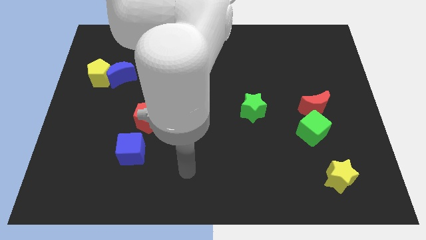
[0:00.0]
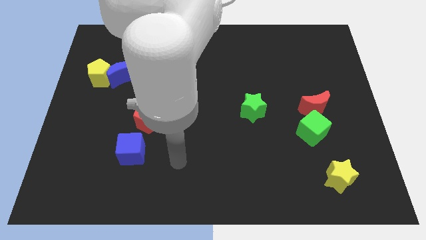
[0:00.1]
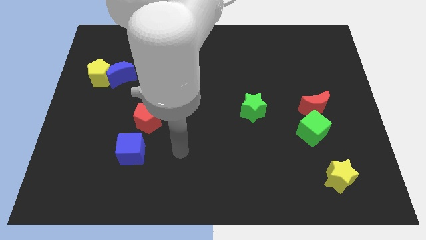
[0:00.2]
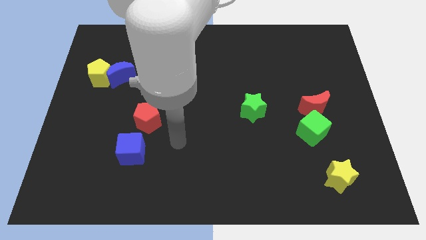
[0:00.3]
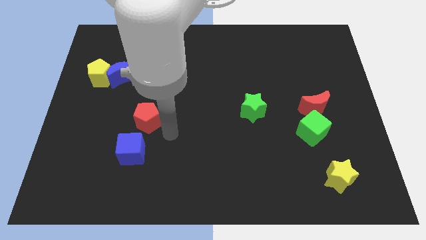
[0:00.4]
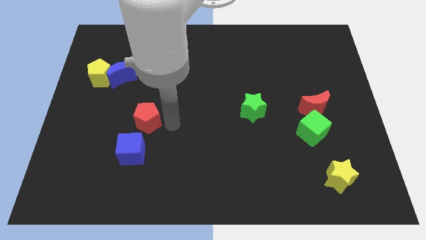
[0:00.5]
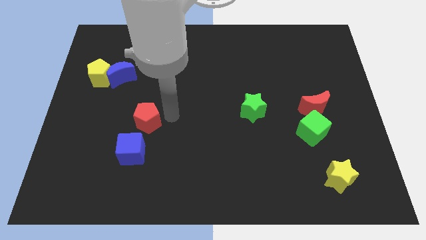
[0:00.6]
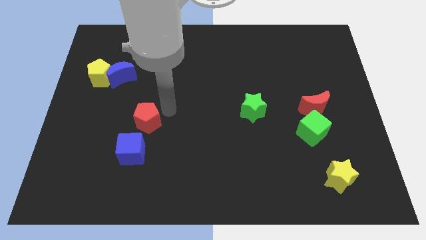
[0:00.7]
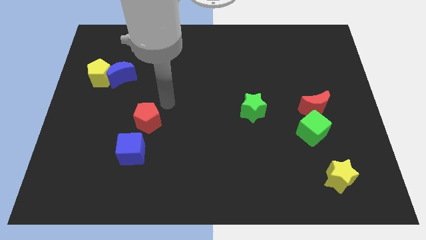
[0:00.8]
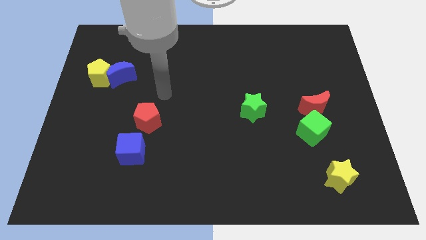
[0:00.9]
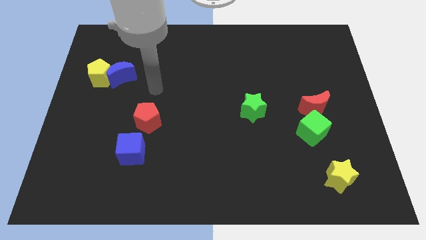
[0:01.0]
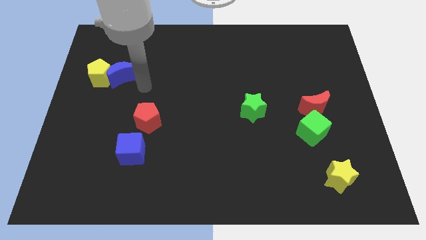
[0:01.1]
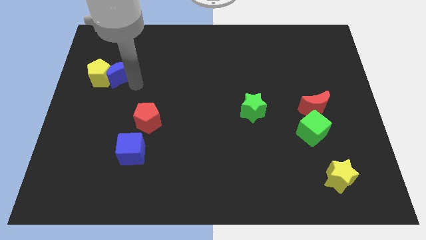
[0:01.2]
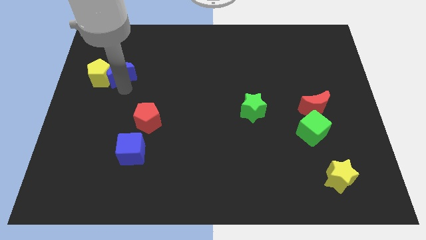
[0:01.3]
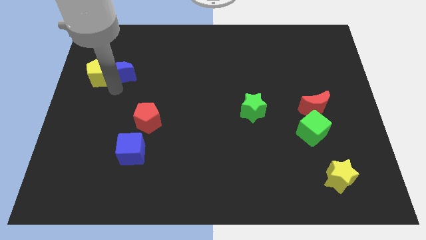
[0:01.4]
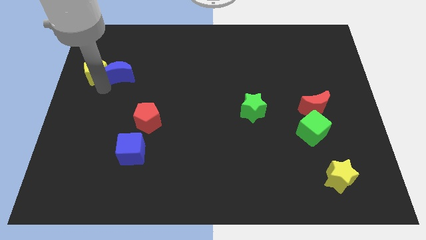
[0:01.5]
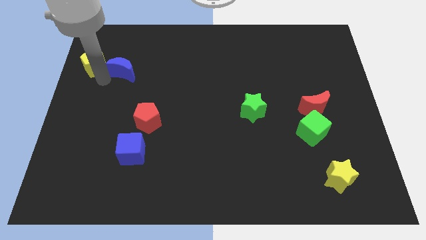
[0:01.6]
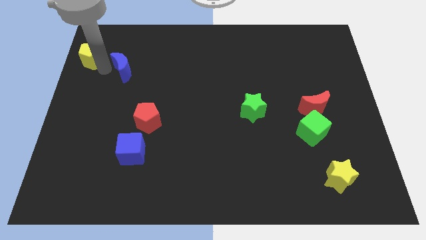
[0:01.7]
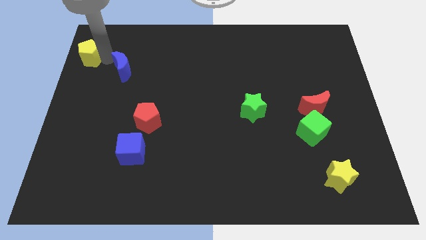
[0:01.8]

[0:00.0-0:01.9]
separate the blue moon from the yellow pentagon

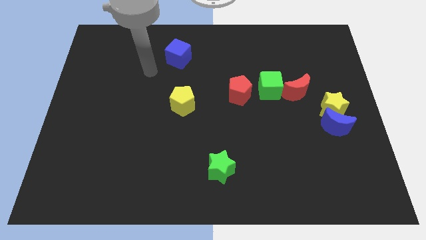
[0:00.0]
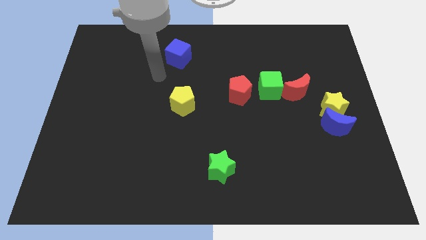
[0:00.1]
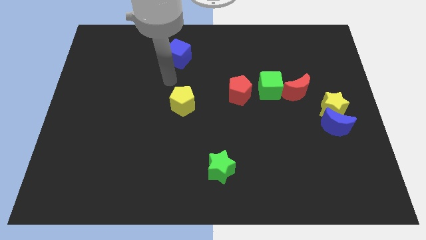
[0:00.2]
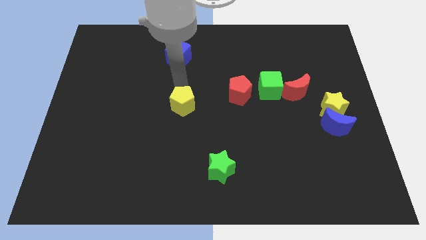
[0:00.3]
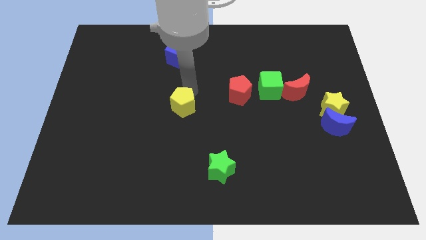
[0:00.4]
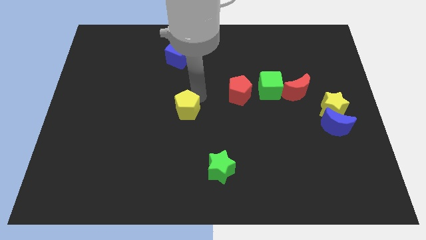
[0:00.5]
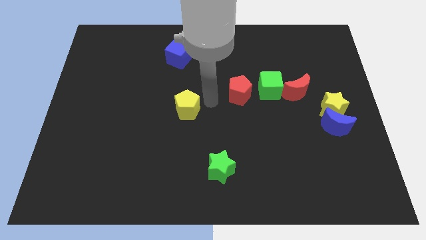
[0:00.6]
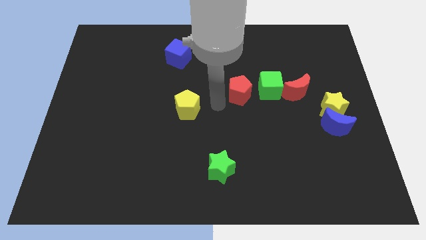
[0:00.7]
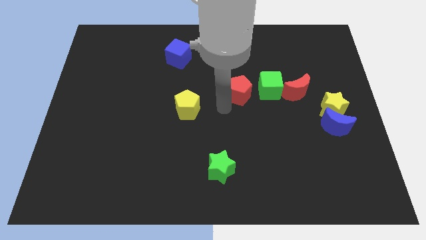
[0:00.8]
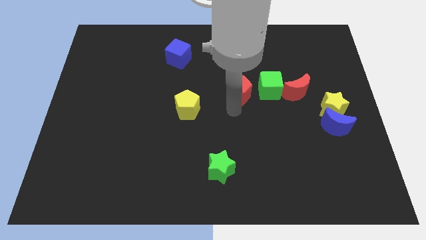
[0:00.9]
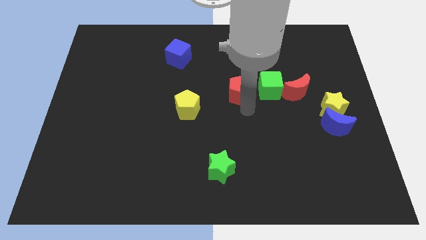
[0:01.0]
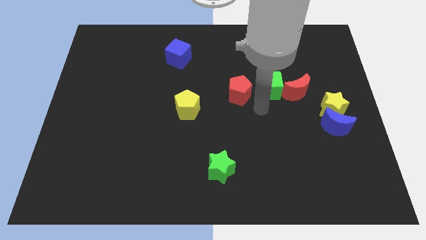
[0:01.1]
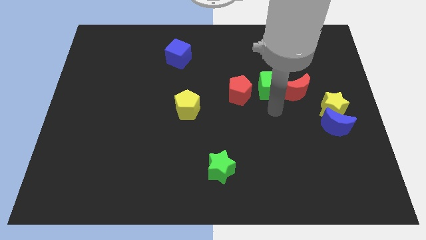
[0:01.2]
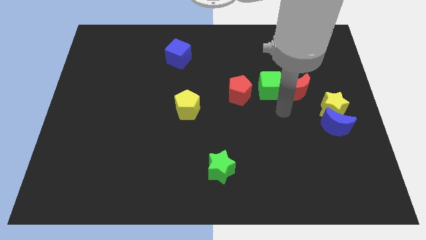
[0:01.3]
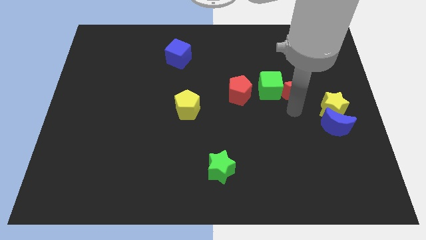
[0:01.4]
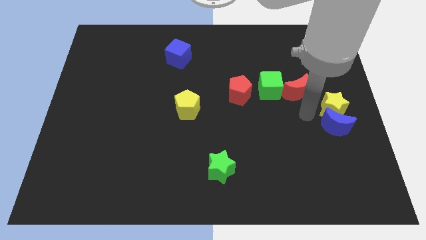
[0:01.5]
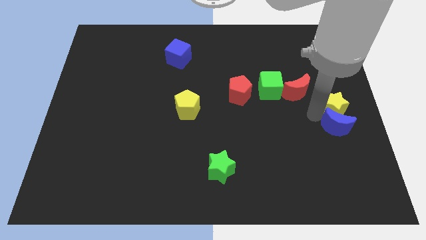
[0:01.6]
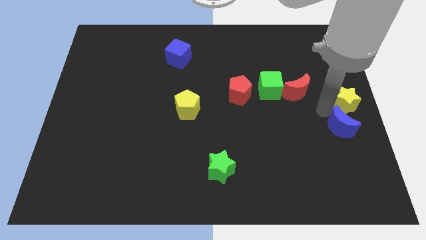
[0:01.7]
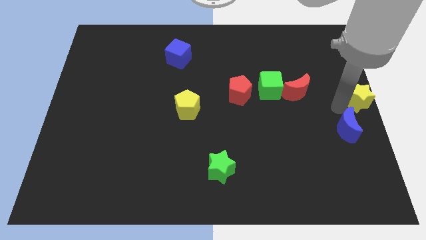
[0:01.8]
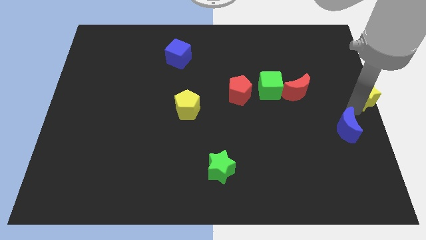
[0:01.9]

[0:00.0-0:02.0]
move the blue moon away from the yellow star

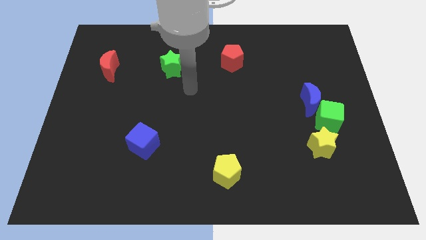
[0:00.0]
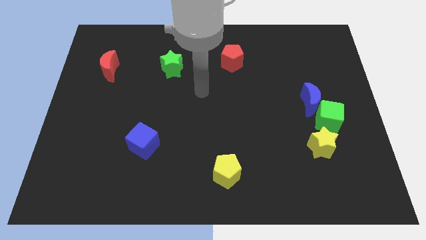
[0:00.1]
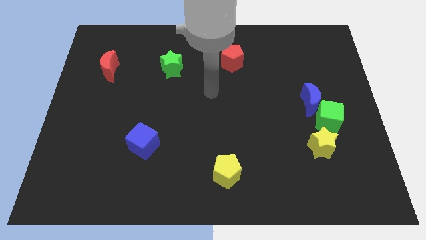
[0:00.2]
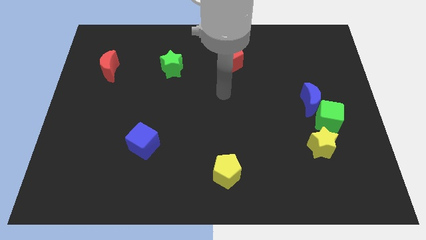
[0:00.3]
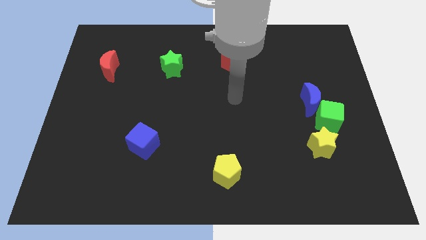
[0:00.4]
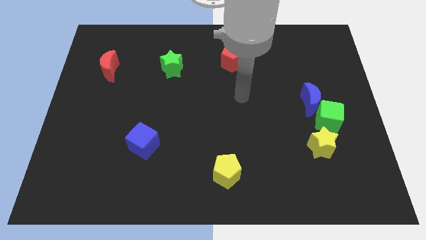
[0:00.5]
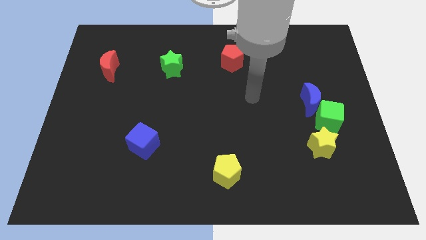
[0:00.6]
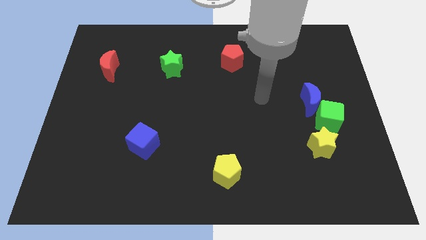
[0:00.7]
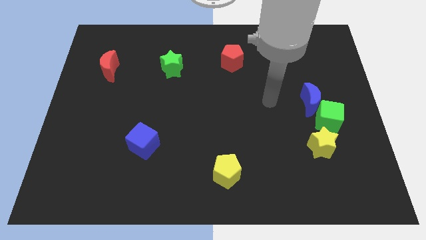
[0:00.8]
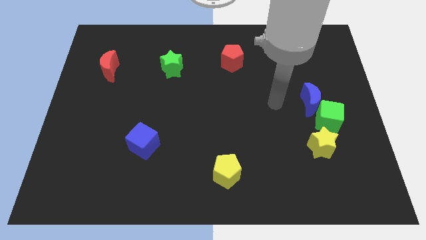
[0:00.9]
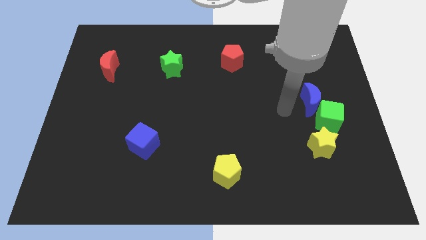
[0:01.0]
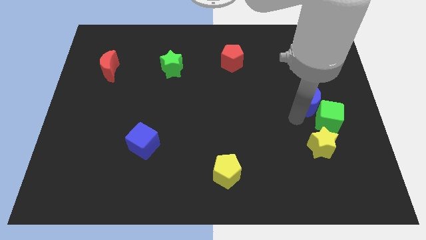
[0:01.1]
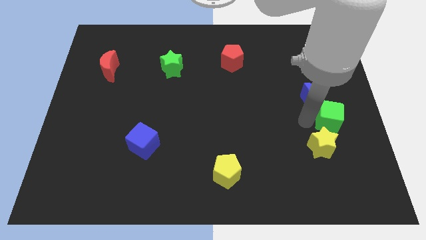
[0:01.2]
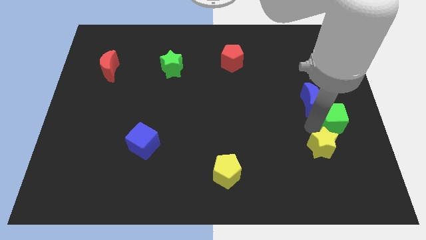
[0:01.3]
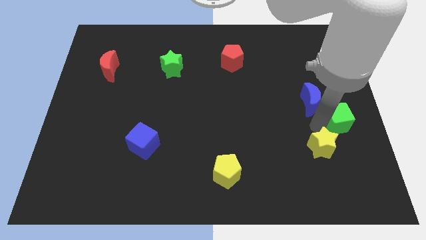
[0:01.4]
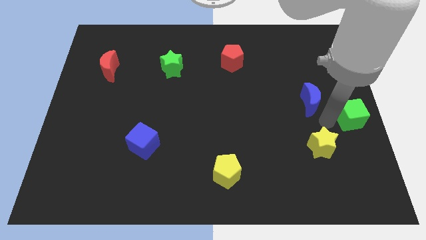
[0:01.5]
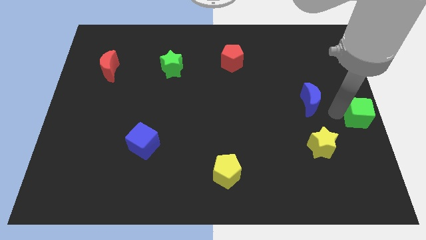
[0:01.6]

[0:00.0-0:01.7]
pull the blue moon apart from the green cube

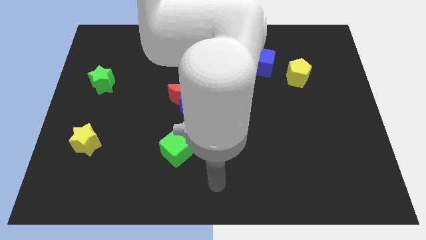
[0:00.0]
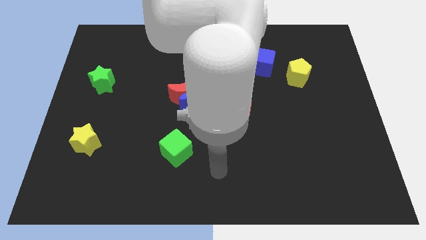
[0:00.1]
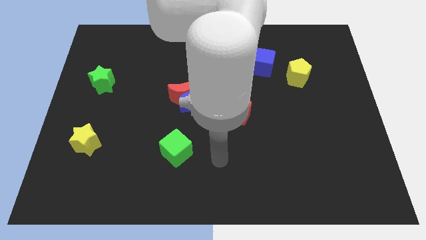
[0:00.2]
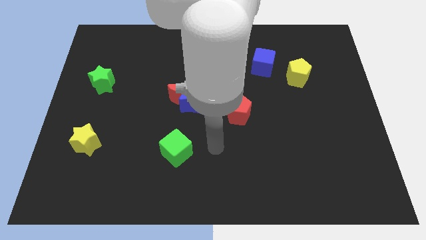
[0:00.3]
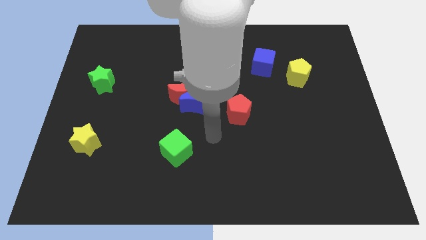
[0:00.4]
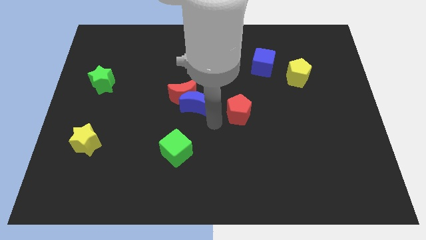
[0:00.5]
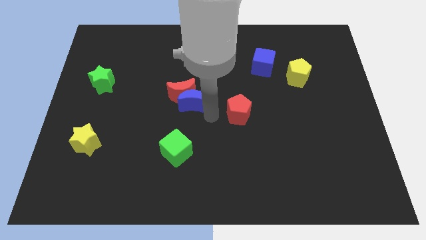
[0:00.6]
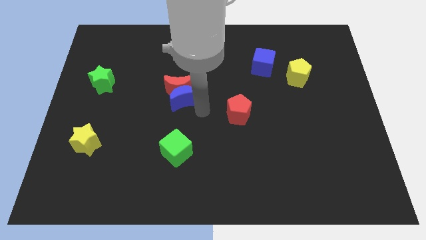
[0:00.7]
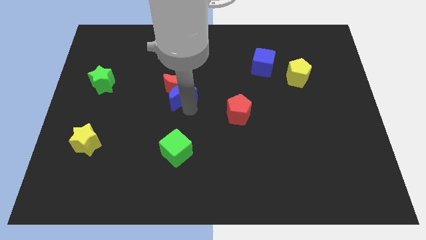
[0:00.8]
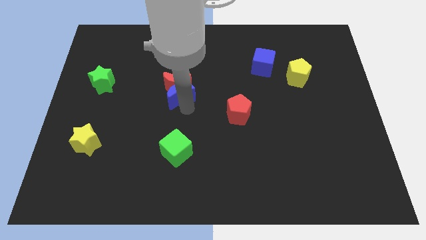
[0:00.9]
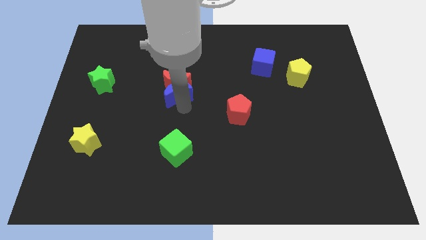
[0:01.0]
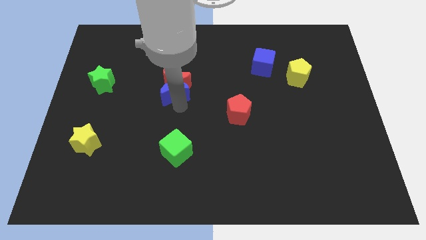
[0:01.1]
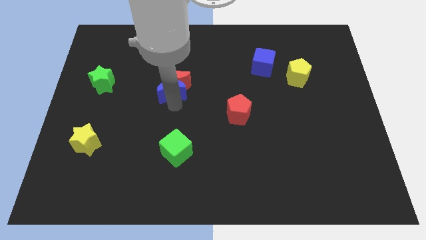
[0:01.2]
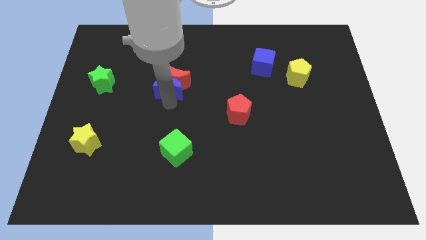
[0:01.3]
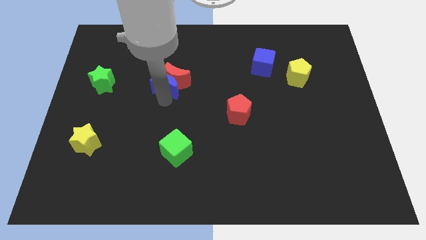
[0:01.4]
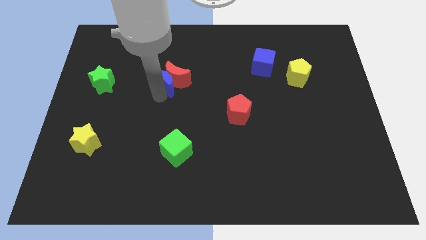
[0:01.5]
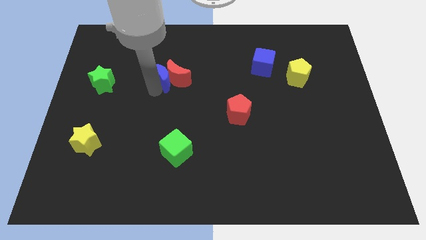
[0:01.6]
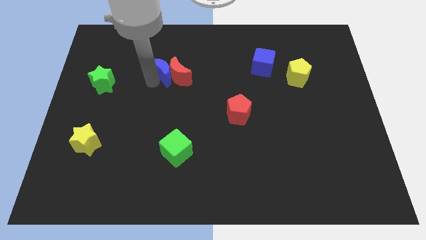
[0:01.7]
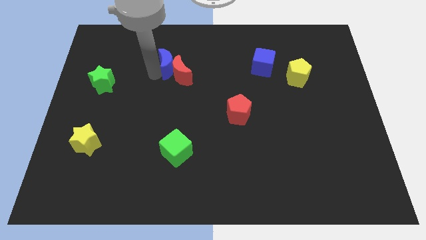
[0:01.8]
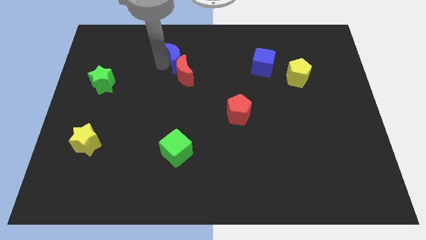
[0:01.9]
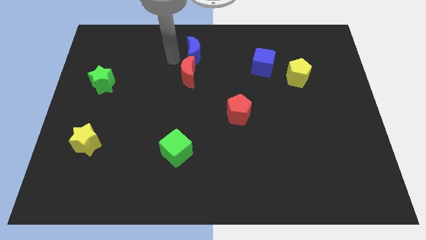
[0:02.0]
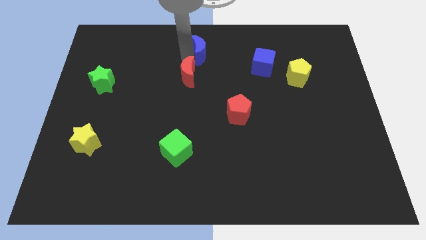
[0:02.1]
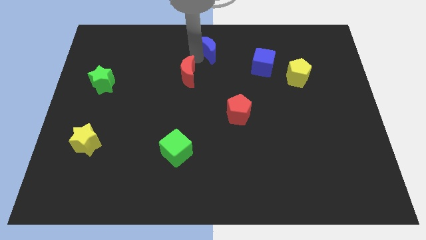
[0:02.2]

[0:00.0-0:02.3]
move the red moon away from the blue moon

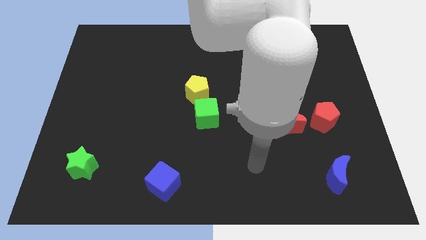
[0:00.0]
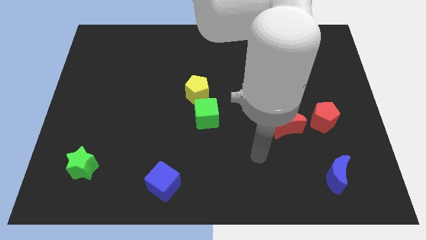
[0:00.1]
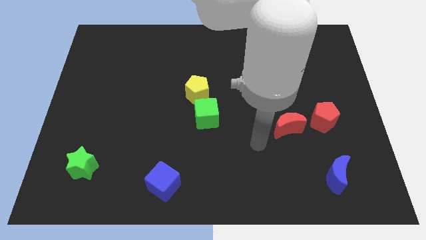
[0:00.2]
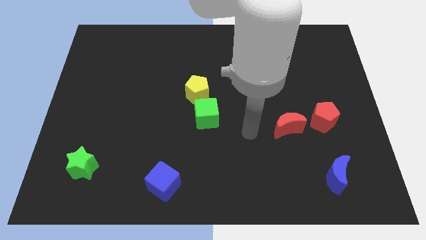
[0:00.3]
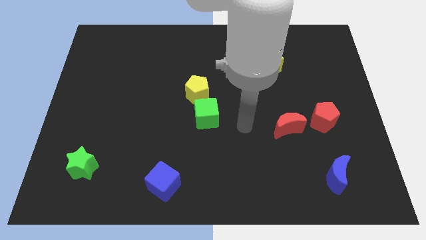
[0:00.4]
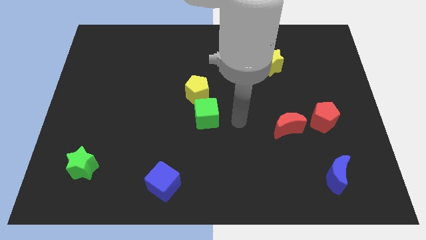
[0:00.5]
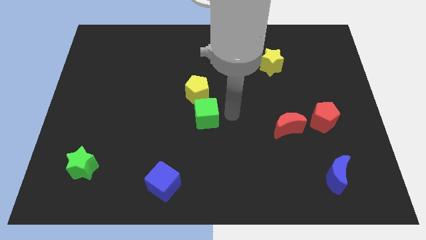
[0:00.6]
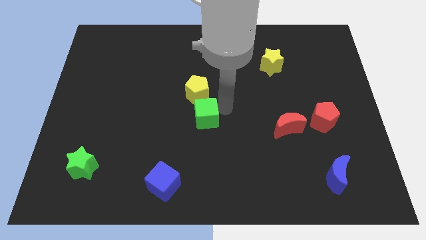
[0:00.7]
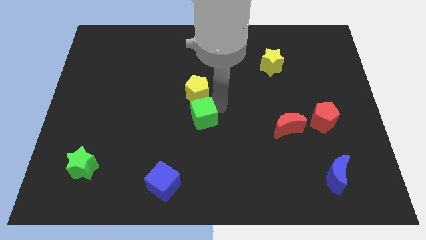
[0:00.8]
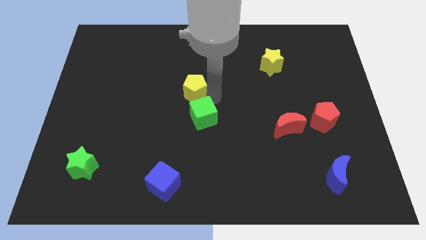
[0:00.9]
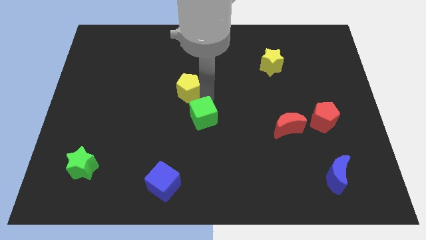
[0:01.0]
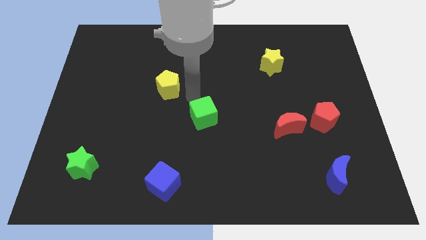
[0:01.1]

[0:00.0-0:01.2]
pull the green cube apart from the yellow pentagon
